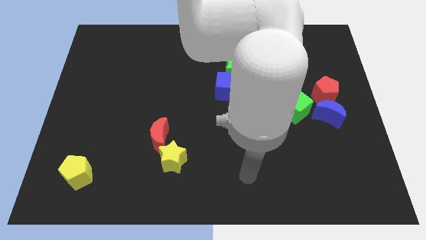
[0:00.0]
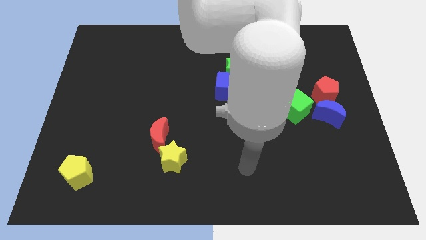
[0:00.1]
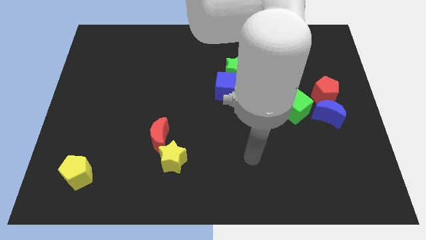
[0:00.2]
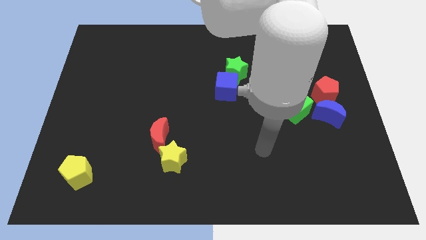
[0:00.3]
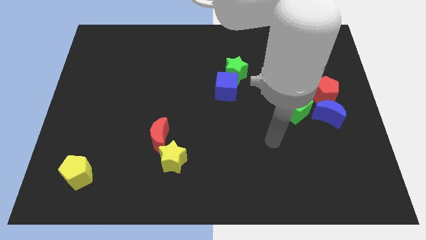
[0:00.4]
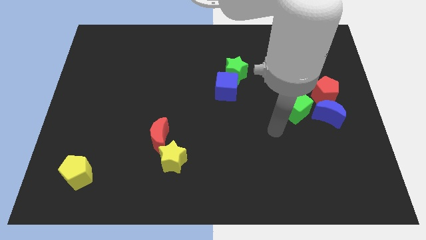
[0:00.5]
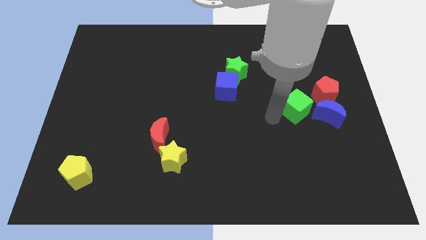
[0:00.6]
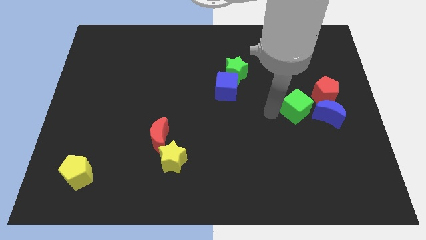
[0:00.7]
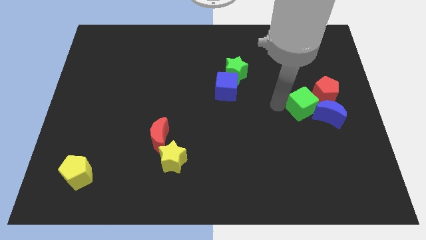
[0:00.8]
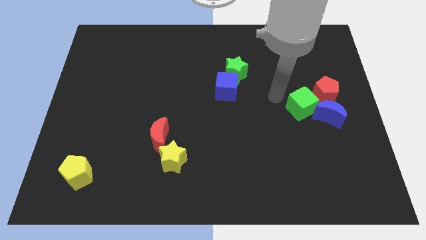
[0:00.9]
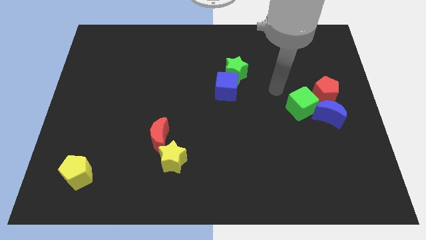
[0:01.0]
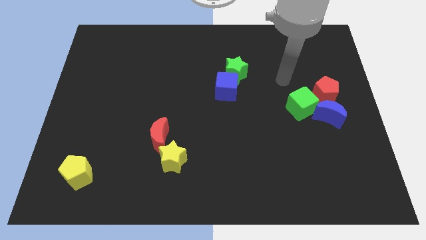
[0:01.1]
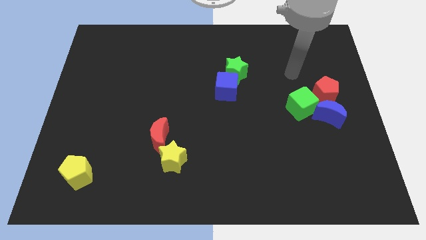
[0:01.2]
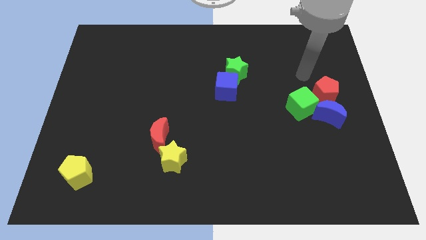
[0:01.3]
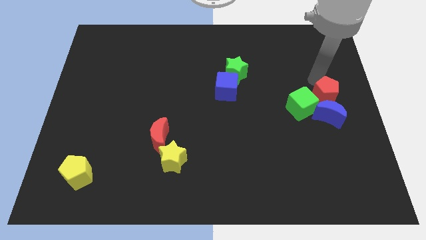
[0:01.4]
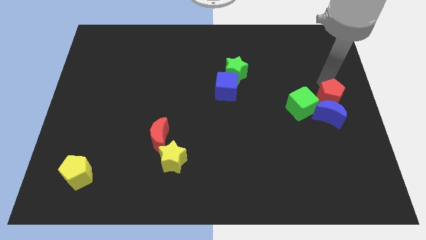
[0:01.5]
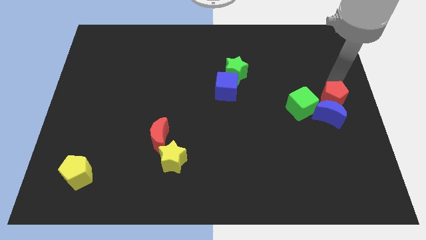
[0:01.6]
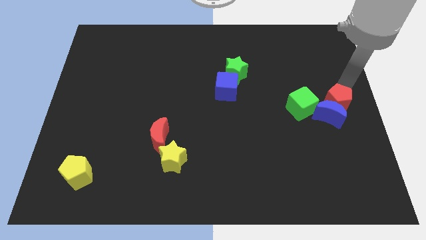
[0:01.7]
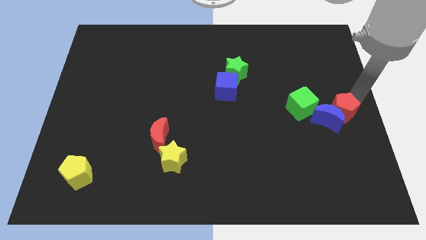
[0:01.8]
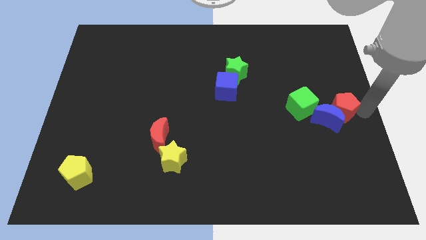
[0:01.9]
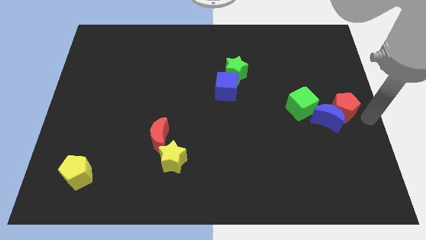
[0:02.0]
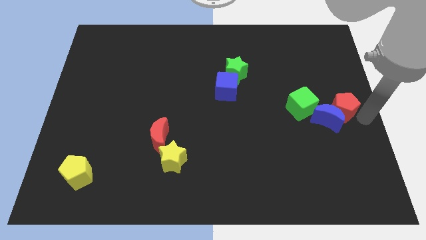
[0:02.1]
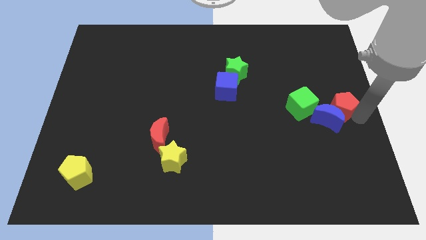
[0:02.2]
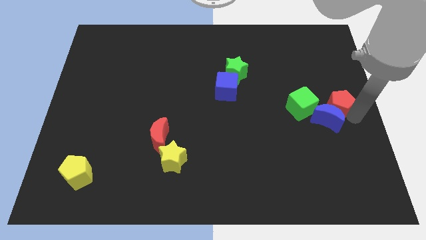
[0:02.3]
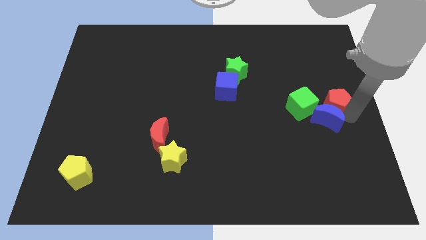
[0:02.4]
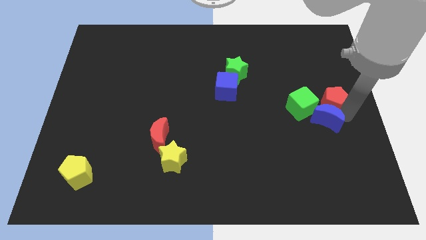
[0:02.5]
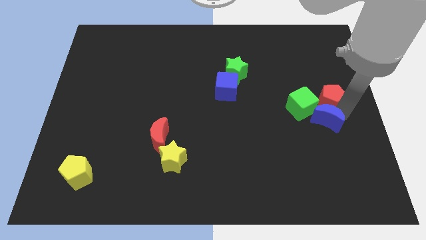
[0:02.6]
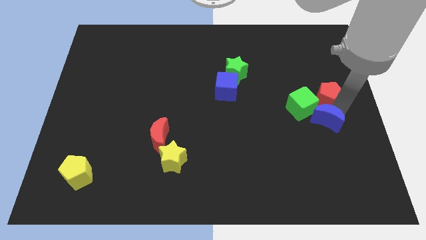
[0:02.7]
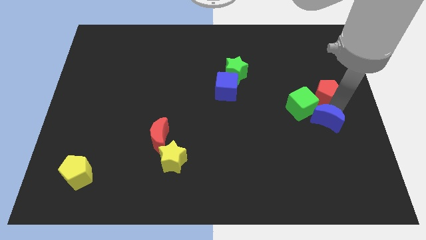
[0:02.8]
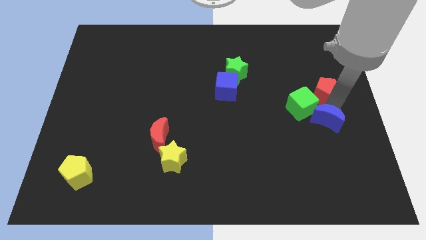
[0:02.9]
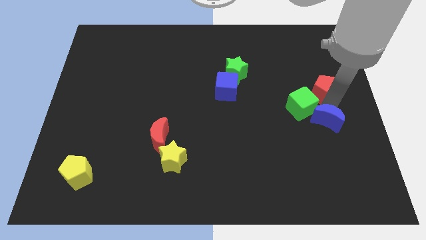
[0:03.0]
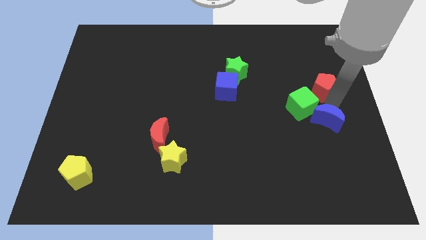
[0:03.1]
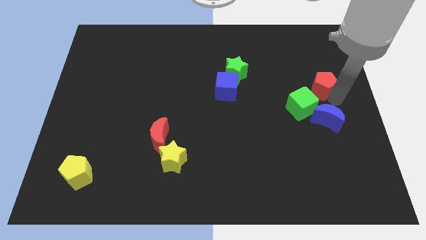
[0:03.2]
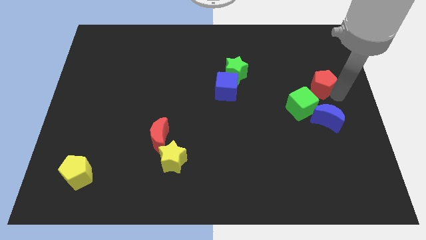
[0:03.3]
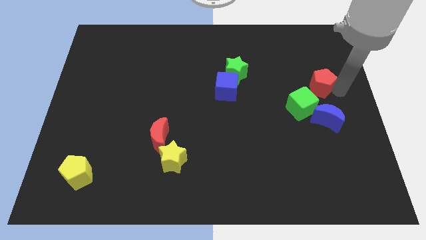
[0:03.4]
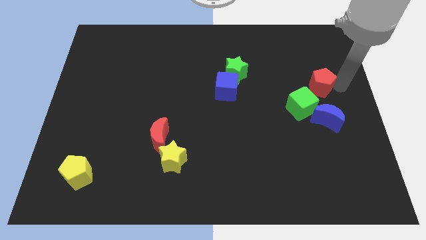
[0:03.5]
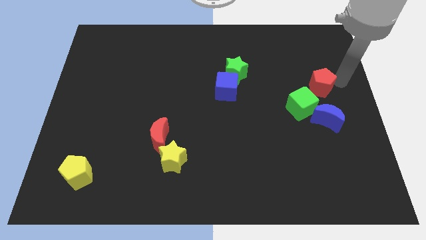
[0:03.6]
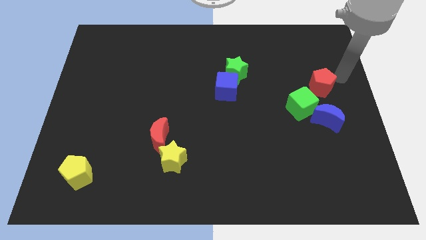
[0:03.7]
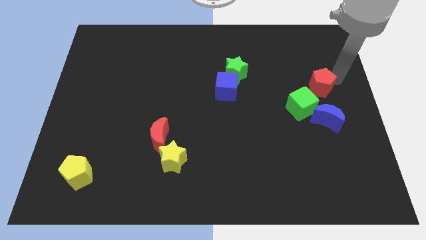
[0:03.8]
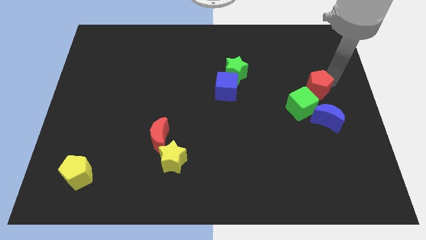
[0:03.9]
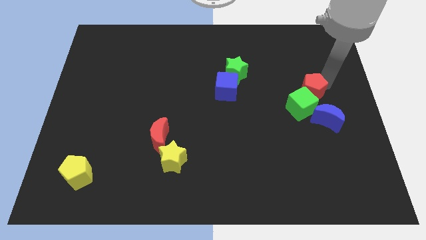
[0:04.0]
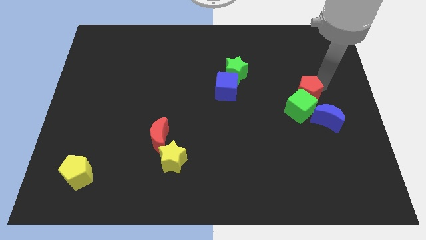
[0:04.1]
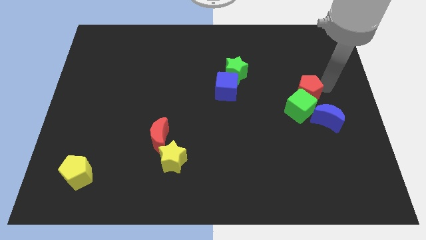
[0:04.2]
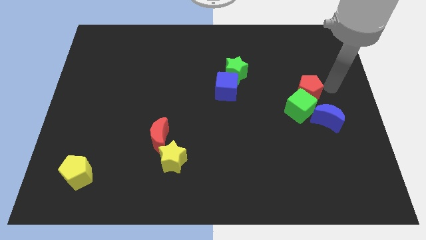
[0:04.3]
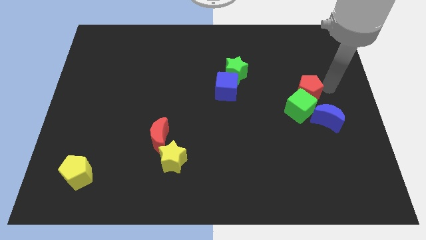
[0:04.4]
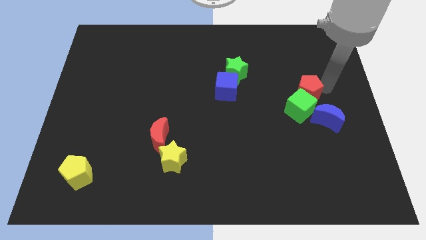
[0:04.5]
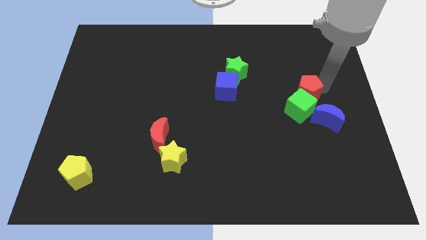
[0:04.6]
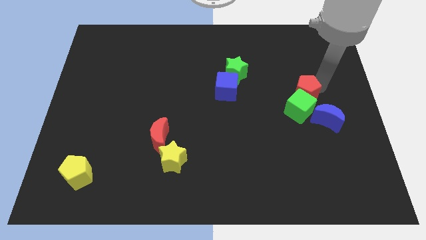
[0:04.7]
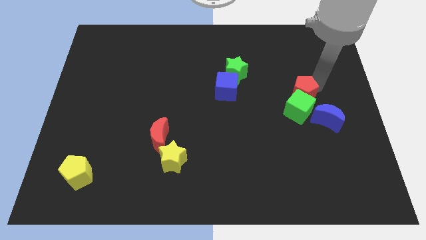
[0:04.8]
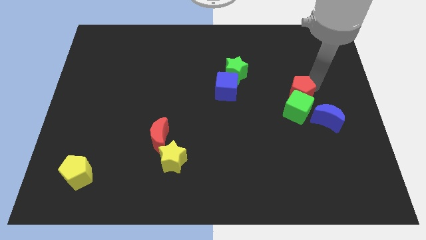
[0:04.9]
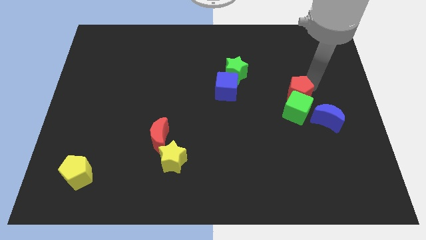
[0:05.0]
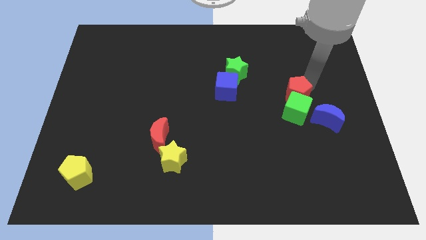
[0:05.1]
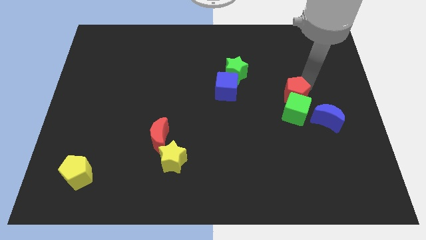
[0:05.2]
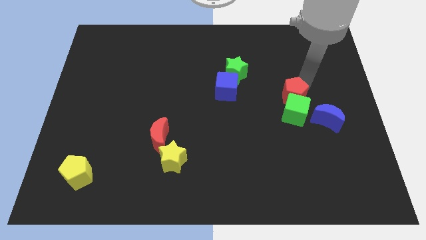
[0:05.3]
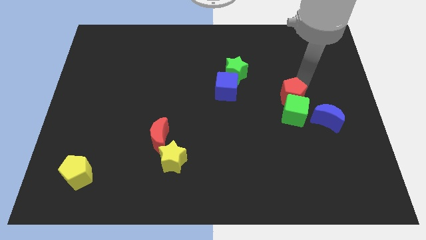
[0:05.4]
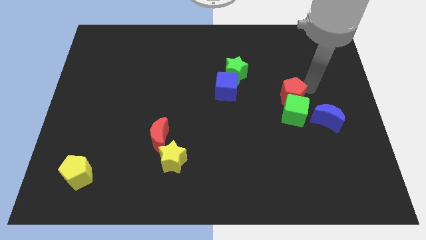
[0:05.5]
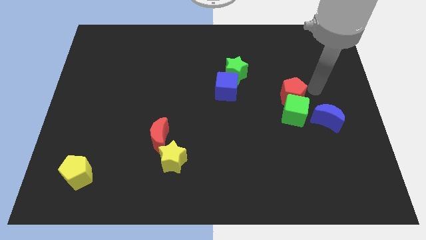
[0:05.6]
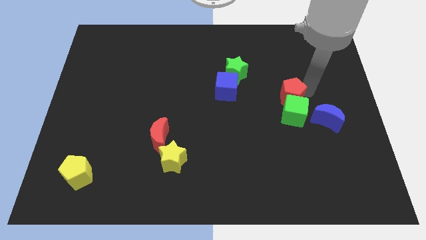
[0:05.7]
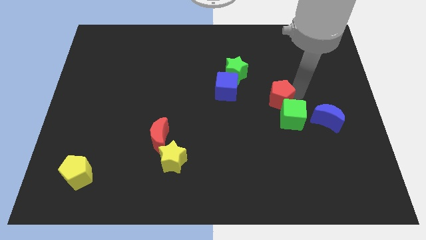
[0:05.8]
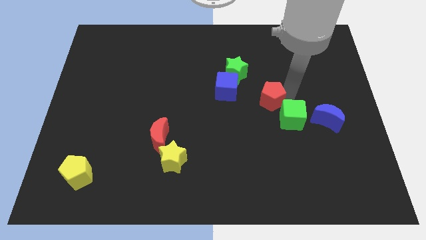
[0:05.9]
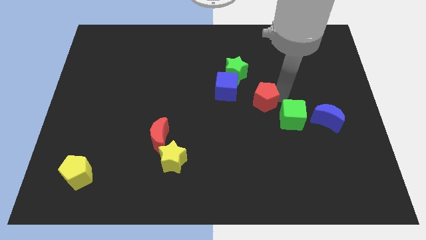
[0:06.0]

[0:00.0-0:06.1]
push the red pentagon to the middle of the board

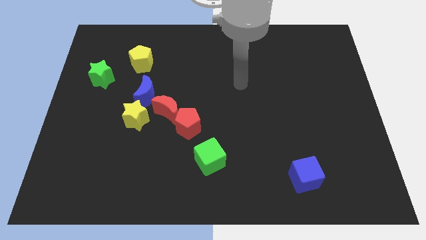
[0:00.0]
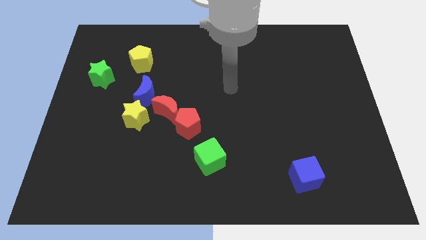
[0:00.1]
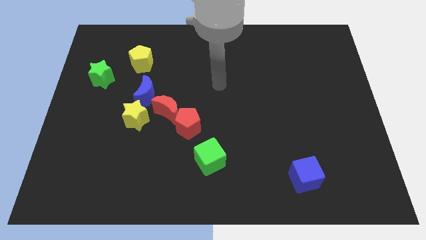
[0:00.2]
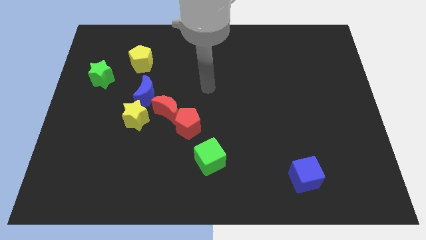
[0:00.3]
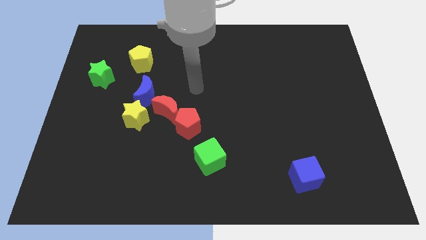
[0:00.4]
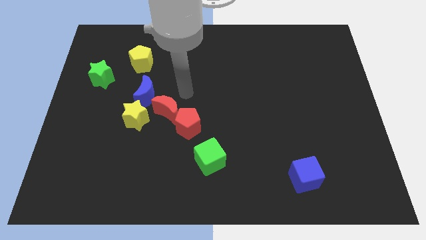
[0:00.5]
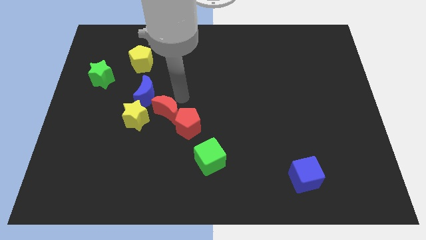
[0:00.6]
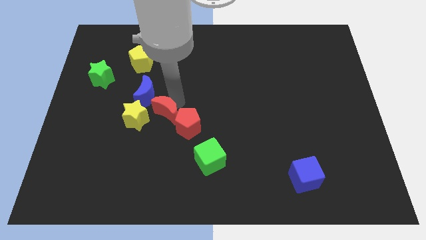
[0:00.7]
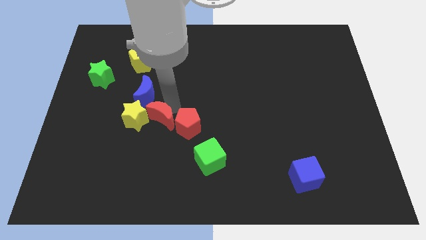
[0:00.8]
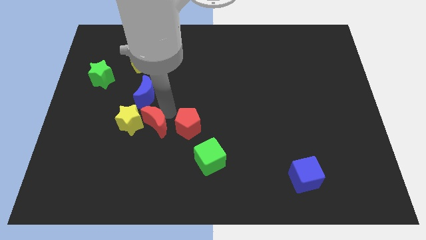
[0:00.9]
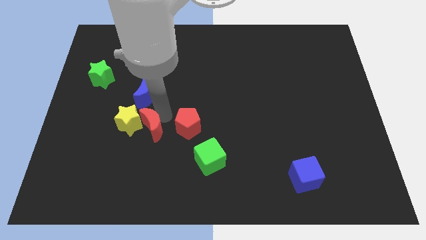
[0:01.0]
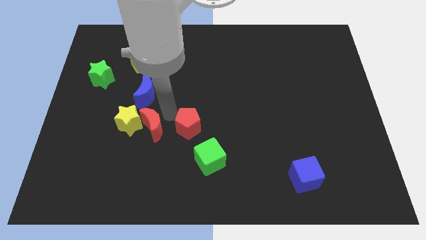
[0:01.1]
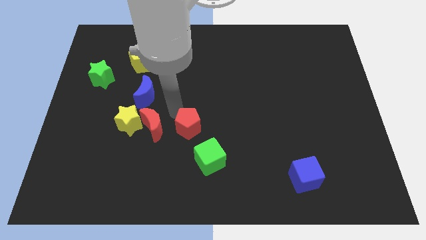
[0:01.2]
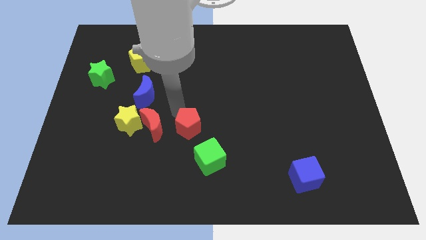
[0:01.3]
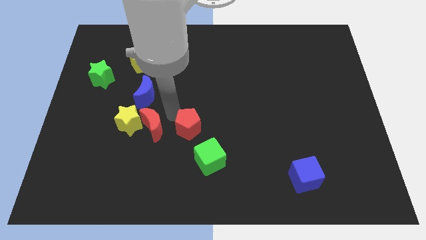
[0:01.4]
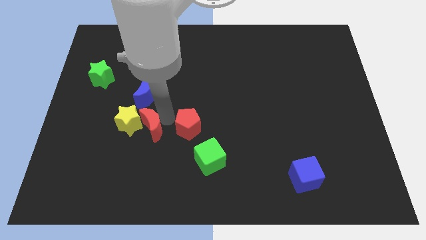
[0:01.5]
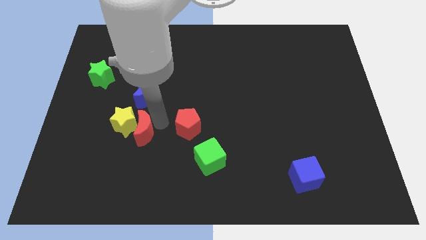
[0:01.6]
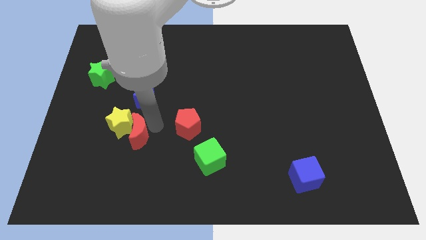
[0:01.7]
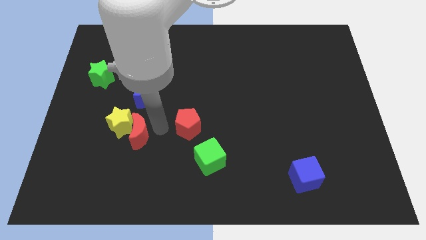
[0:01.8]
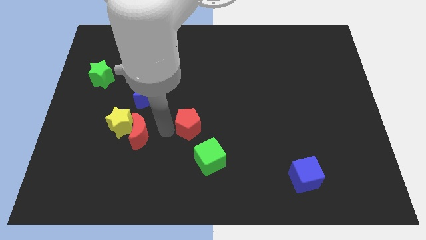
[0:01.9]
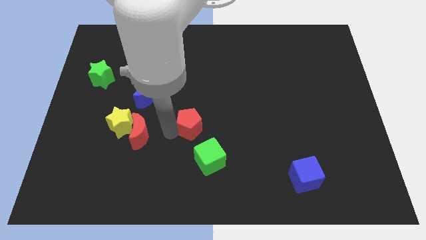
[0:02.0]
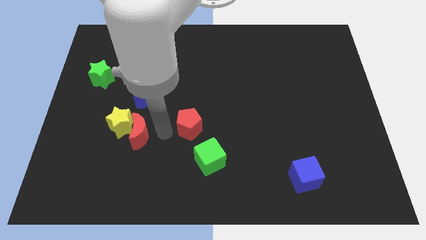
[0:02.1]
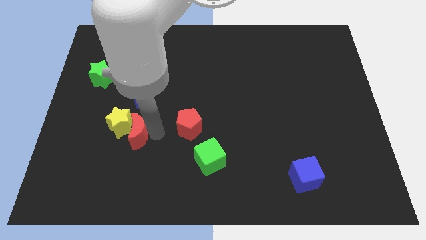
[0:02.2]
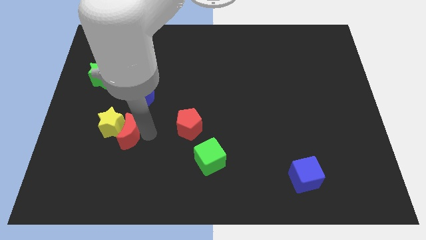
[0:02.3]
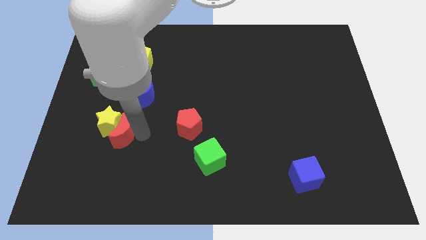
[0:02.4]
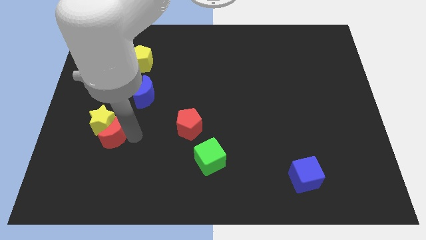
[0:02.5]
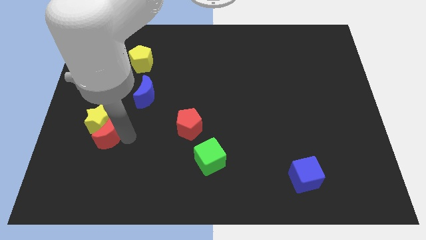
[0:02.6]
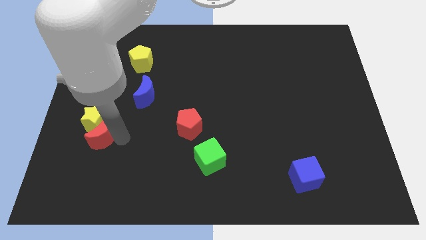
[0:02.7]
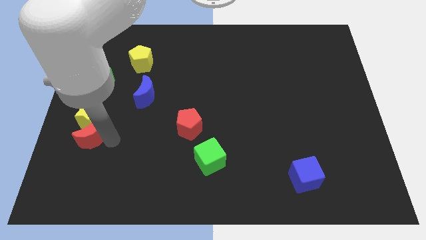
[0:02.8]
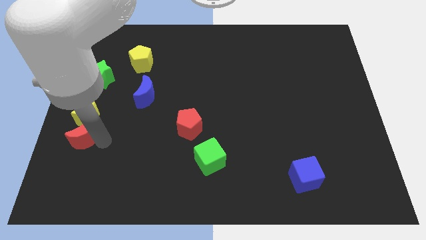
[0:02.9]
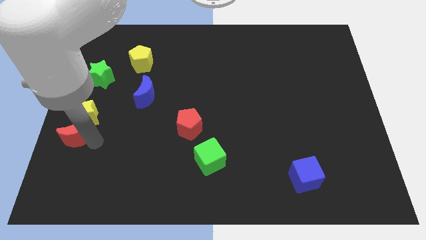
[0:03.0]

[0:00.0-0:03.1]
move the red moon to the left side of the board
